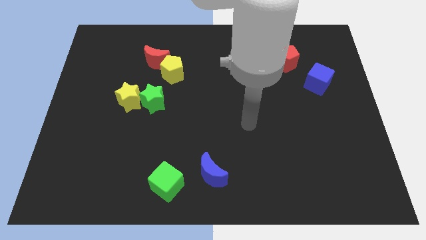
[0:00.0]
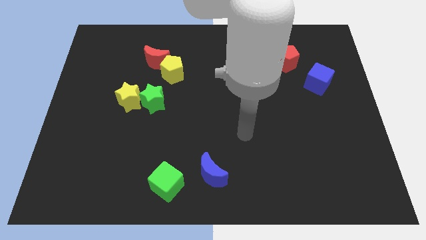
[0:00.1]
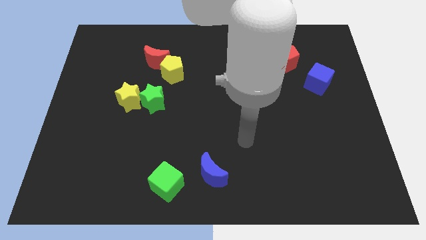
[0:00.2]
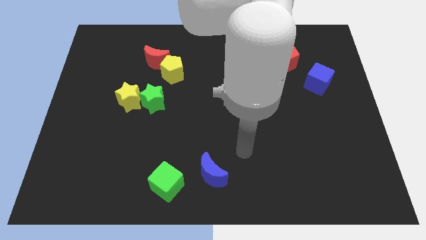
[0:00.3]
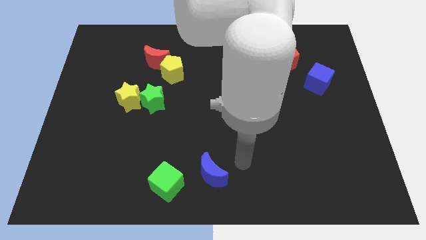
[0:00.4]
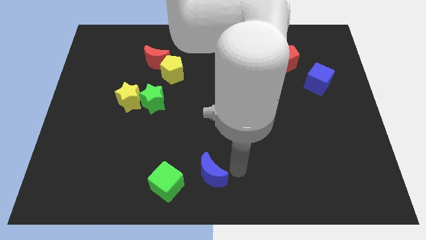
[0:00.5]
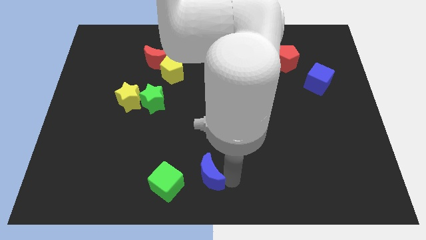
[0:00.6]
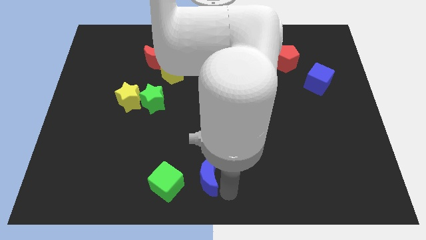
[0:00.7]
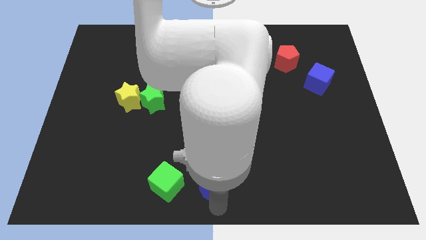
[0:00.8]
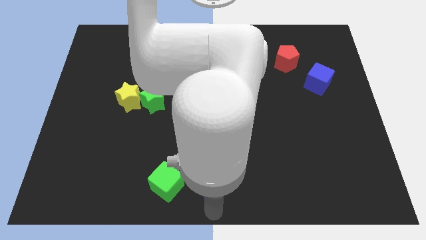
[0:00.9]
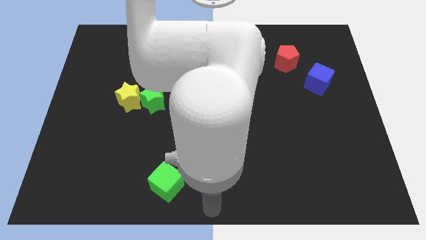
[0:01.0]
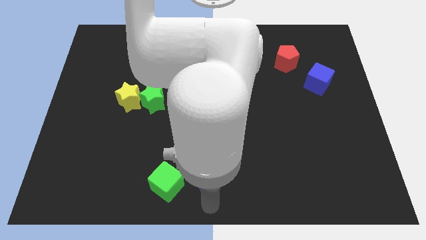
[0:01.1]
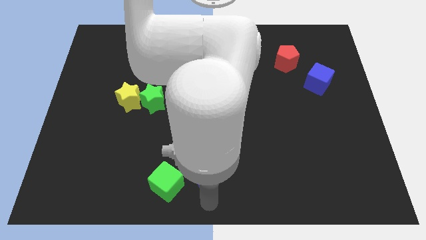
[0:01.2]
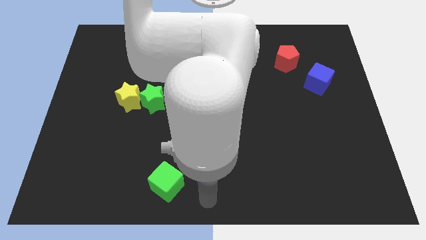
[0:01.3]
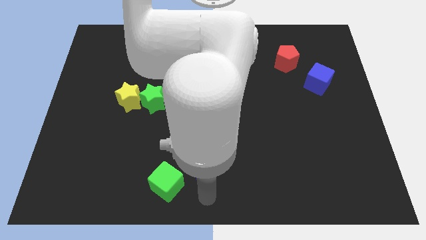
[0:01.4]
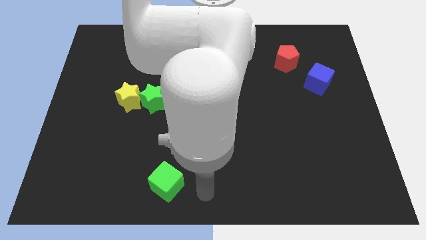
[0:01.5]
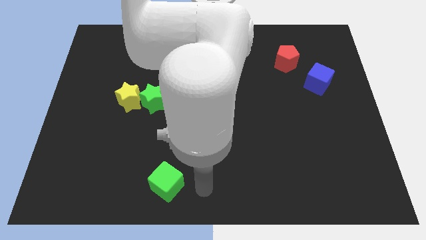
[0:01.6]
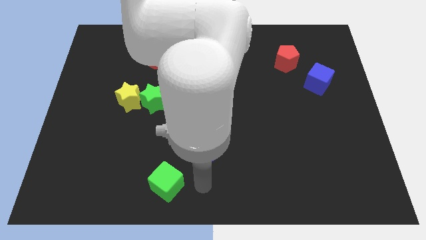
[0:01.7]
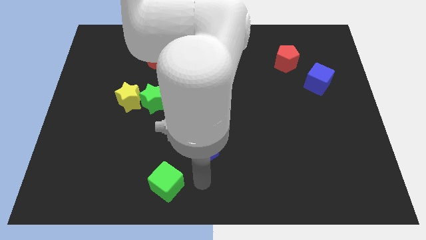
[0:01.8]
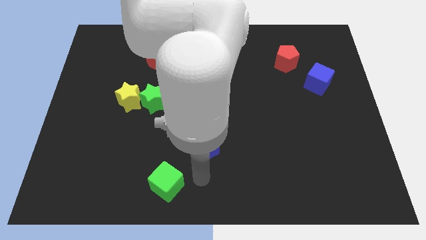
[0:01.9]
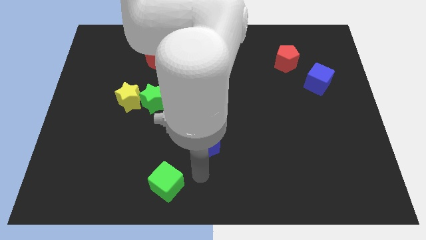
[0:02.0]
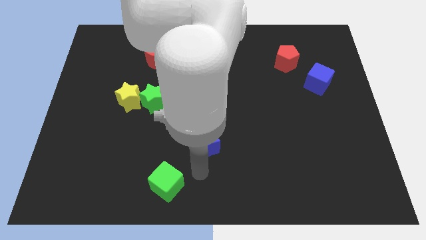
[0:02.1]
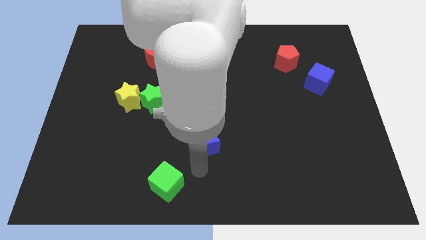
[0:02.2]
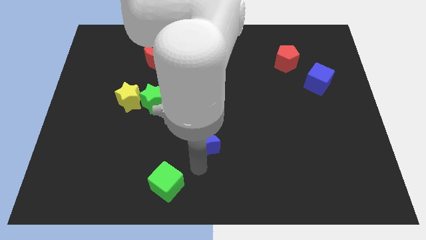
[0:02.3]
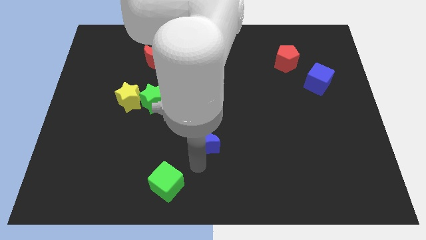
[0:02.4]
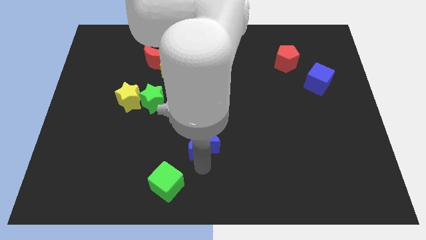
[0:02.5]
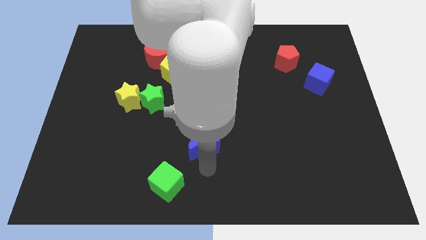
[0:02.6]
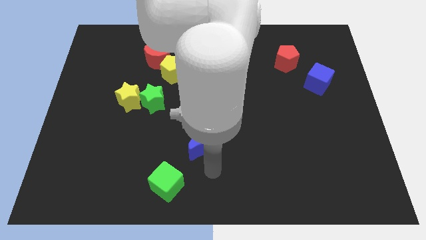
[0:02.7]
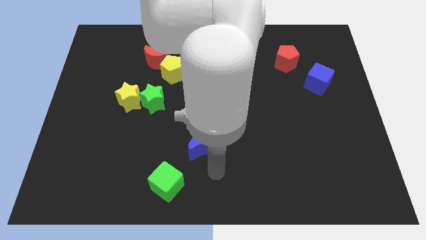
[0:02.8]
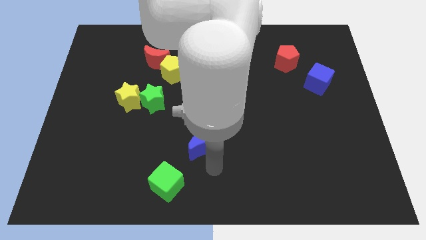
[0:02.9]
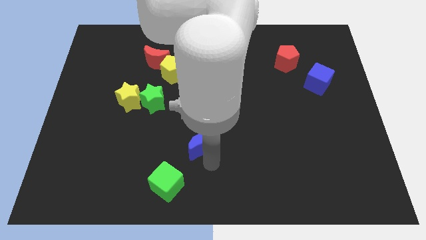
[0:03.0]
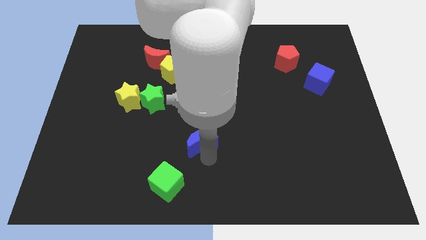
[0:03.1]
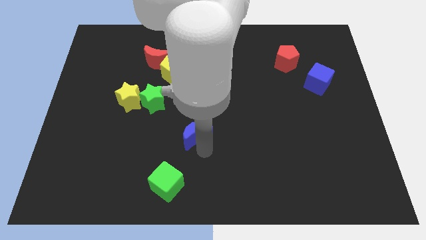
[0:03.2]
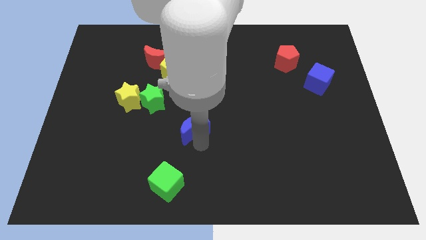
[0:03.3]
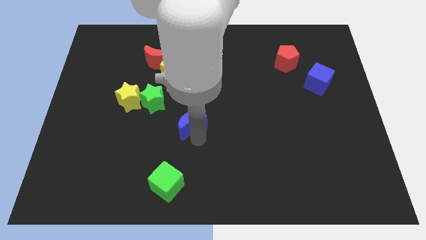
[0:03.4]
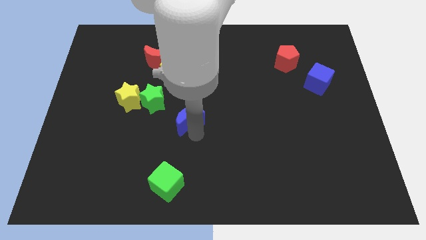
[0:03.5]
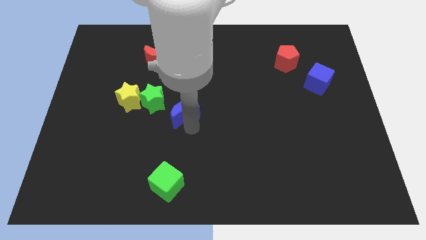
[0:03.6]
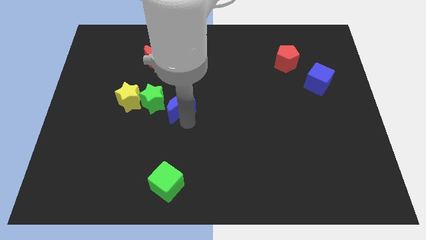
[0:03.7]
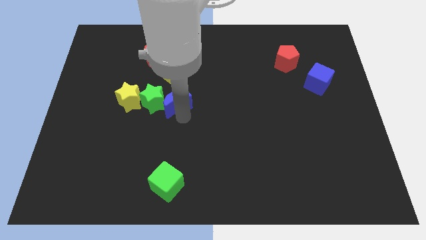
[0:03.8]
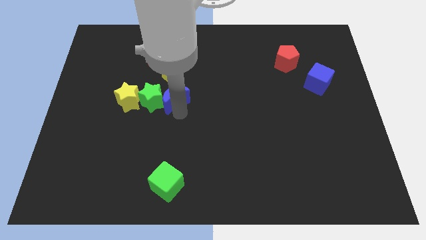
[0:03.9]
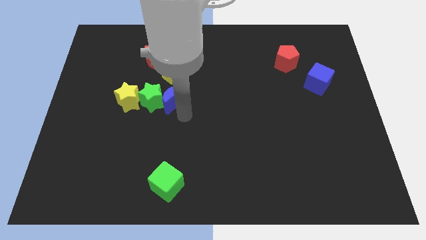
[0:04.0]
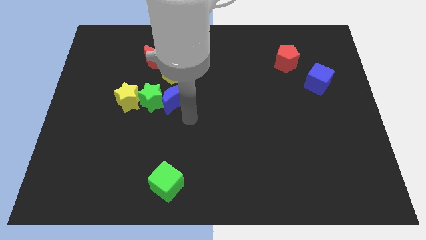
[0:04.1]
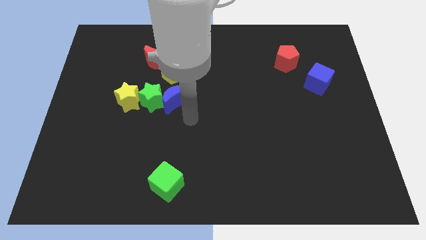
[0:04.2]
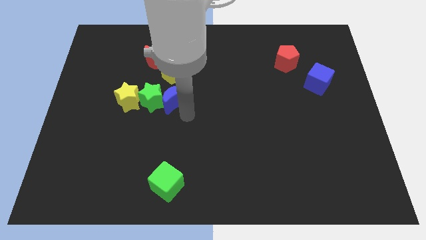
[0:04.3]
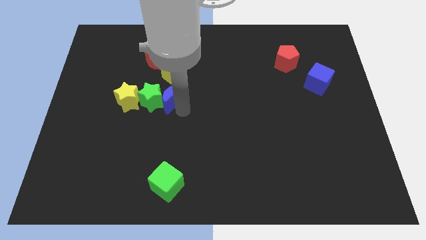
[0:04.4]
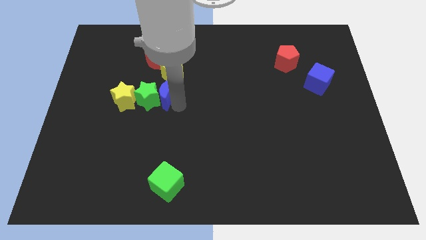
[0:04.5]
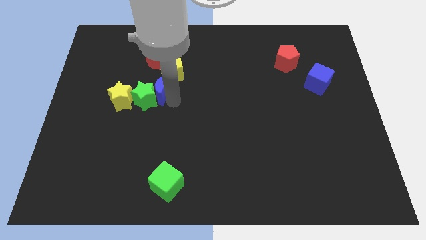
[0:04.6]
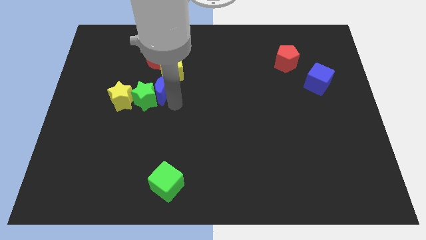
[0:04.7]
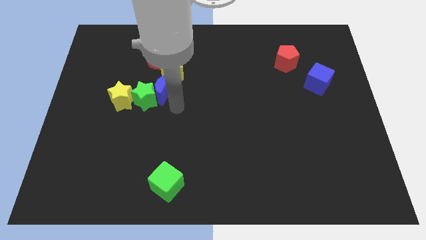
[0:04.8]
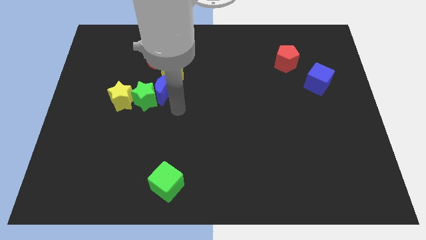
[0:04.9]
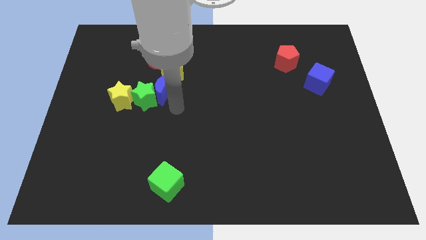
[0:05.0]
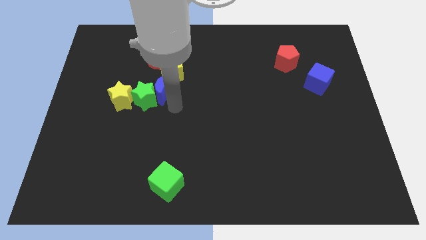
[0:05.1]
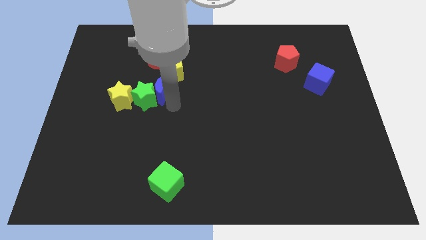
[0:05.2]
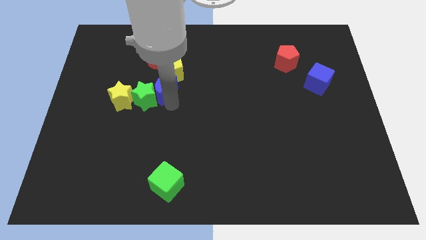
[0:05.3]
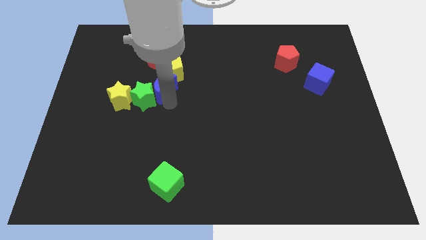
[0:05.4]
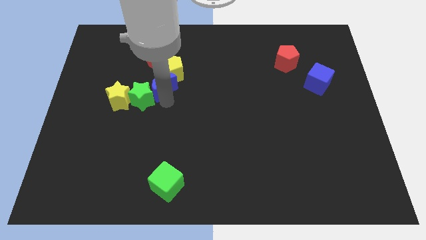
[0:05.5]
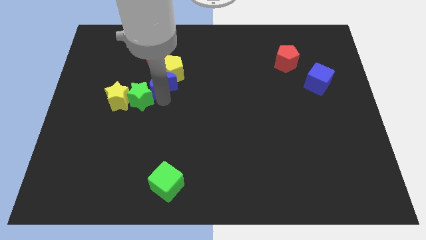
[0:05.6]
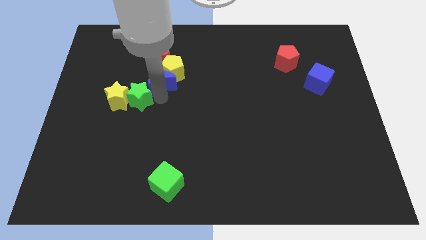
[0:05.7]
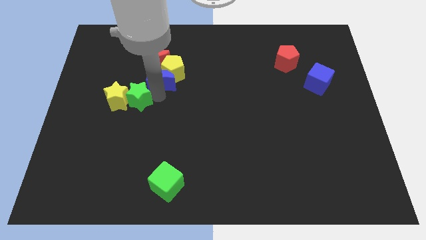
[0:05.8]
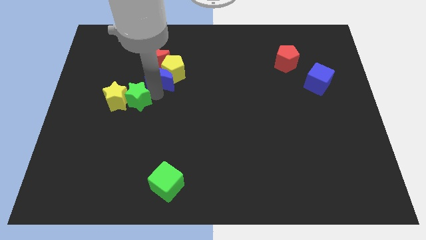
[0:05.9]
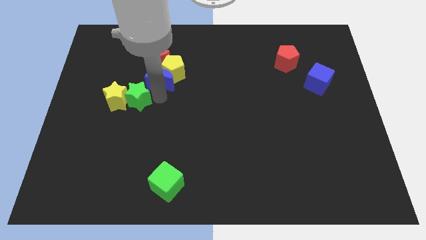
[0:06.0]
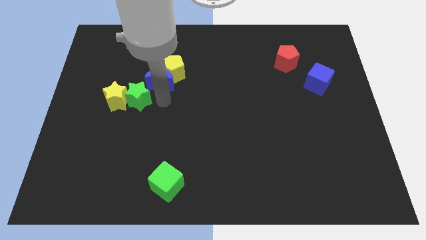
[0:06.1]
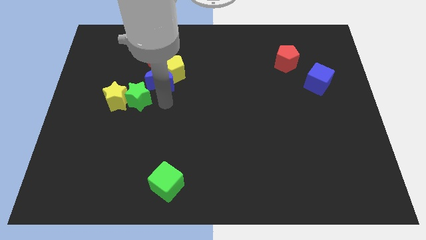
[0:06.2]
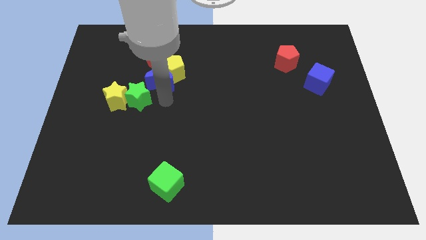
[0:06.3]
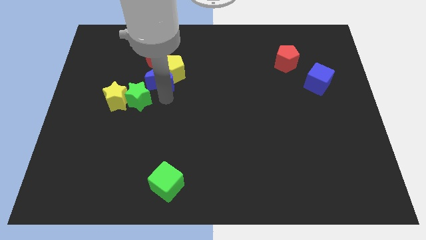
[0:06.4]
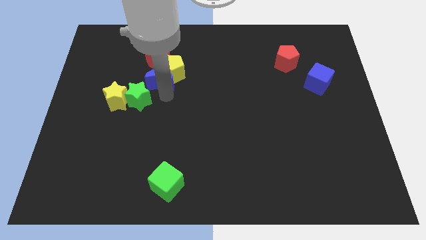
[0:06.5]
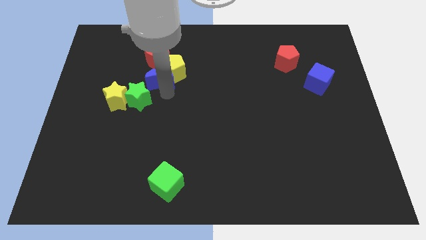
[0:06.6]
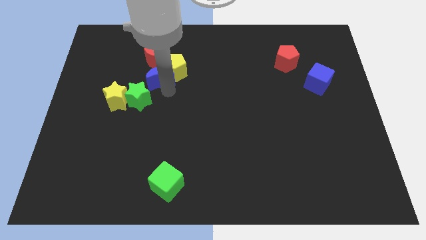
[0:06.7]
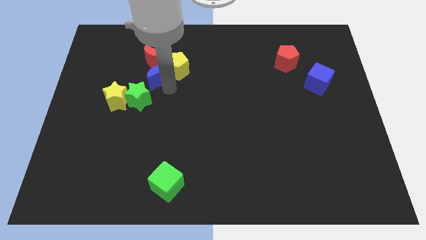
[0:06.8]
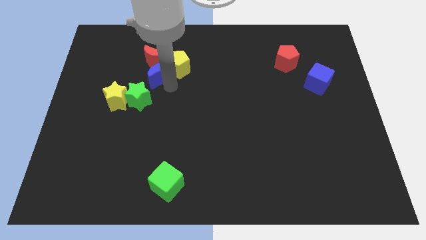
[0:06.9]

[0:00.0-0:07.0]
slide the blue moon towards the red moon

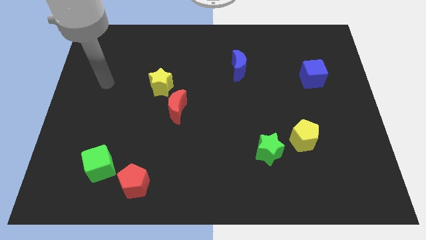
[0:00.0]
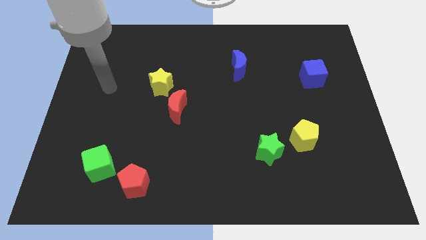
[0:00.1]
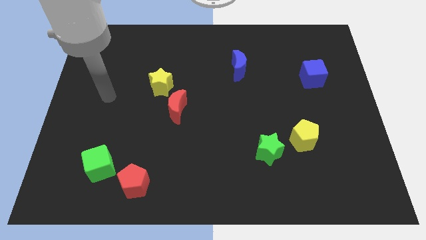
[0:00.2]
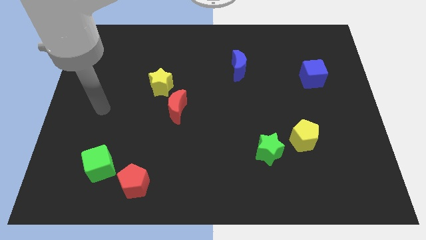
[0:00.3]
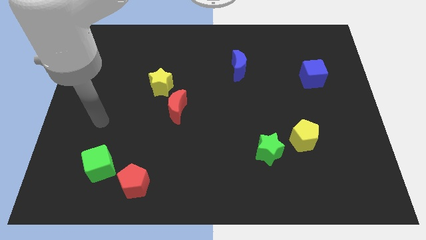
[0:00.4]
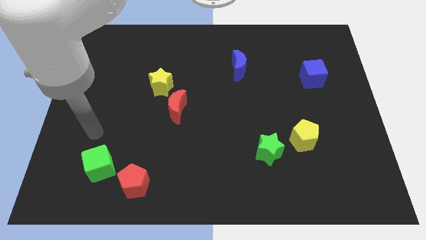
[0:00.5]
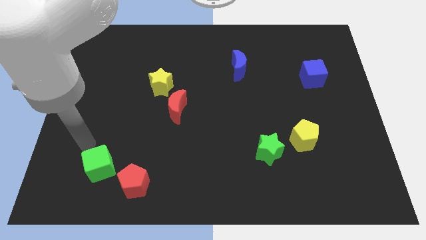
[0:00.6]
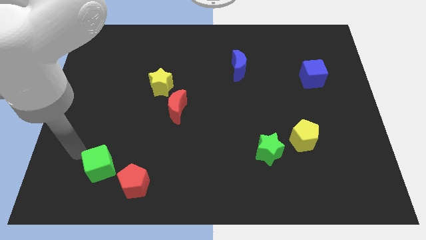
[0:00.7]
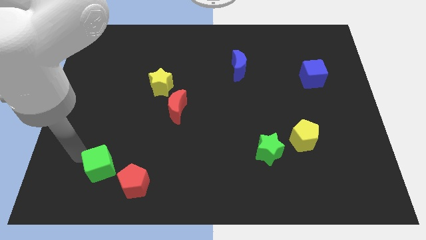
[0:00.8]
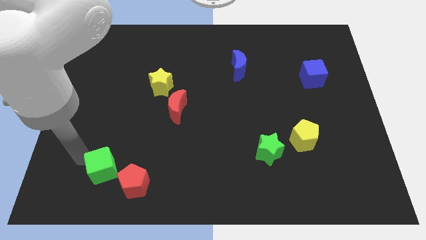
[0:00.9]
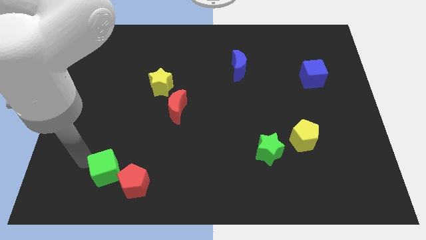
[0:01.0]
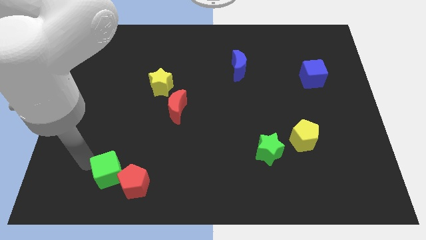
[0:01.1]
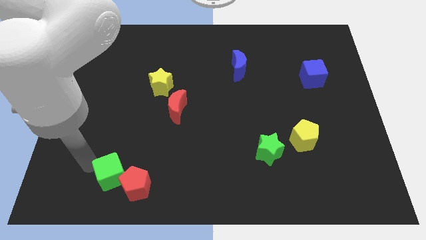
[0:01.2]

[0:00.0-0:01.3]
slide the green cube to the red pentagon
